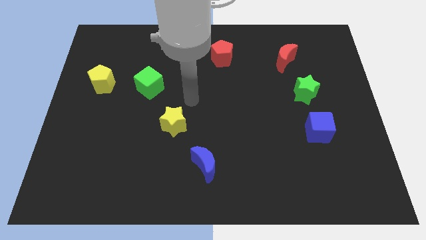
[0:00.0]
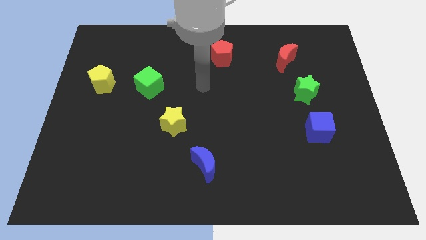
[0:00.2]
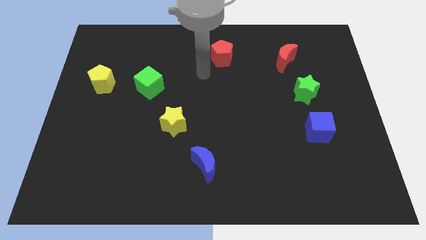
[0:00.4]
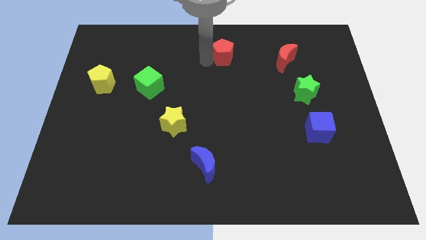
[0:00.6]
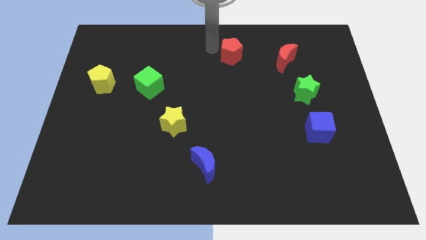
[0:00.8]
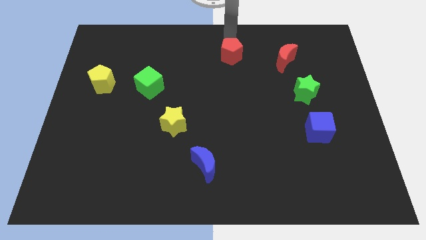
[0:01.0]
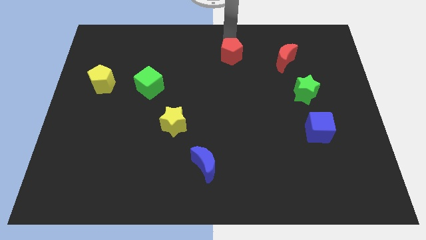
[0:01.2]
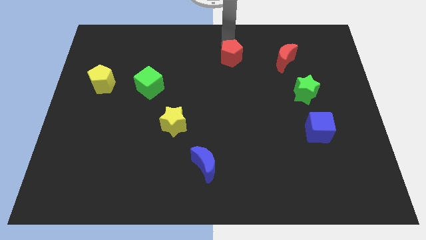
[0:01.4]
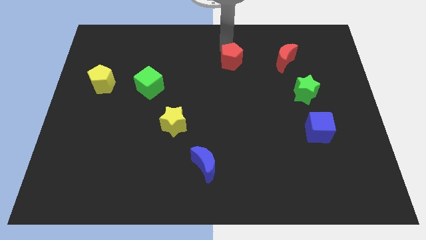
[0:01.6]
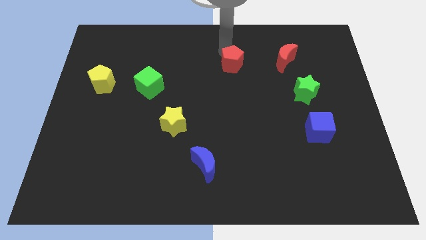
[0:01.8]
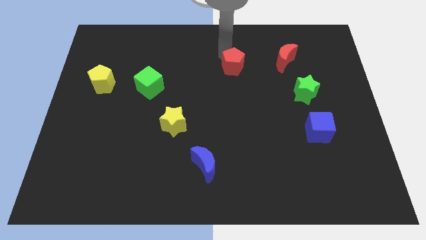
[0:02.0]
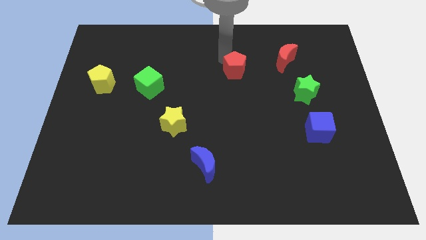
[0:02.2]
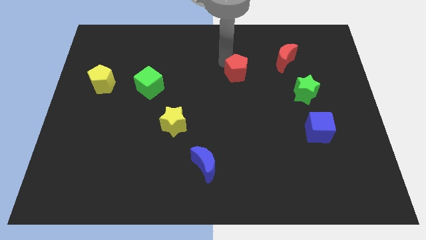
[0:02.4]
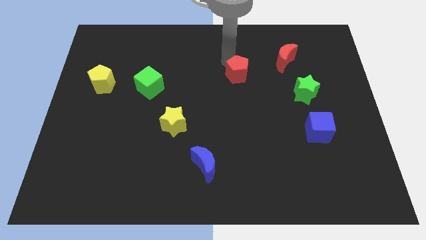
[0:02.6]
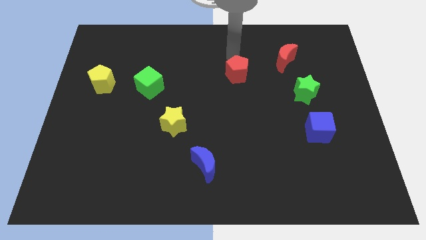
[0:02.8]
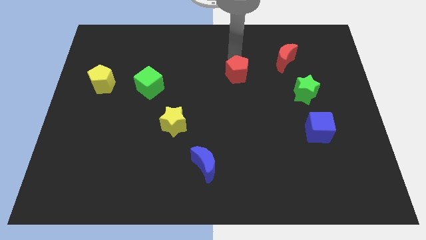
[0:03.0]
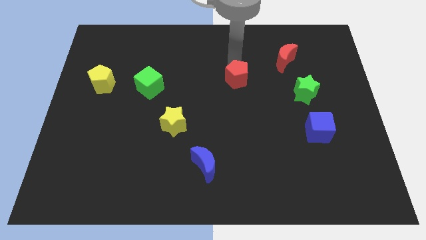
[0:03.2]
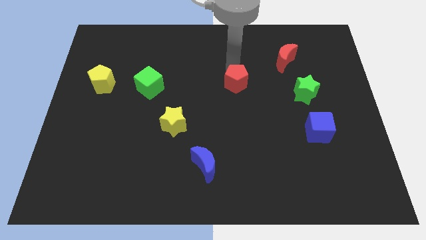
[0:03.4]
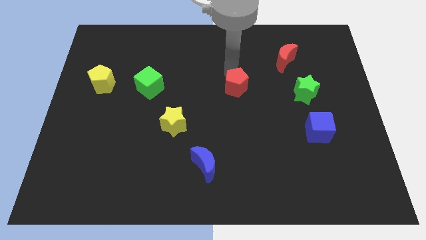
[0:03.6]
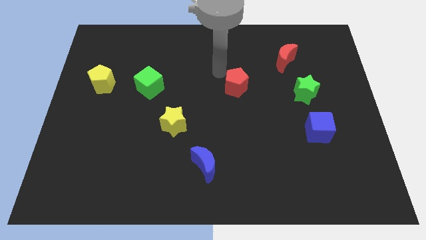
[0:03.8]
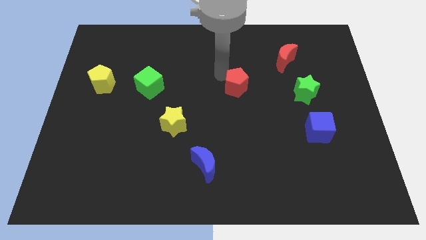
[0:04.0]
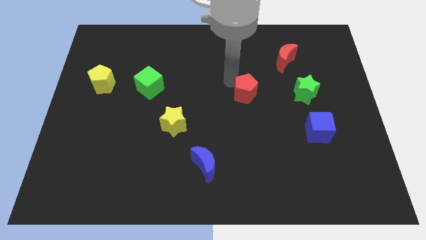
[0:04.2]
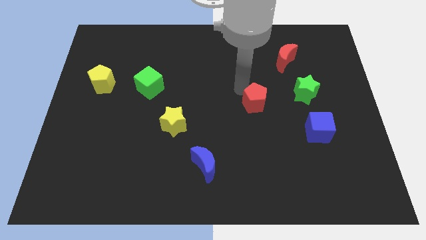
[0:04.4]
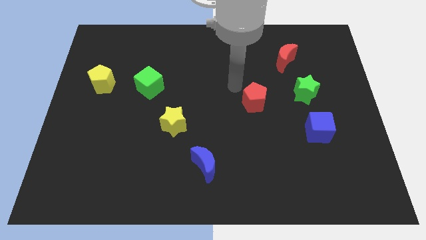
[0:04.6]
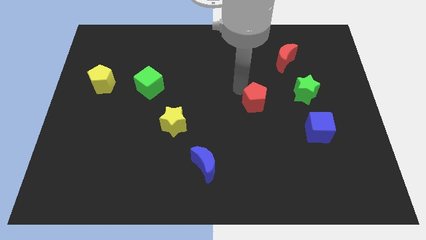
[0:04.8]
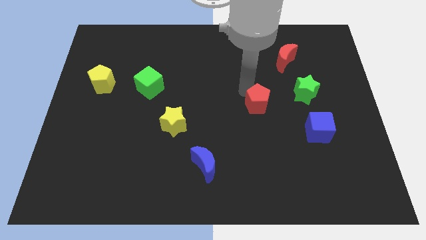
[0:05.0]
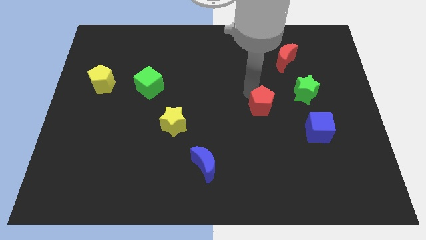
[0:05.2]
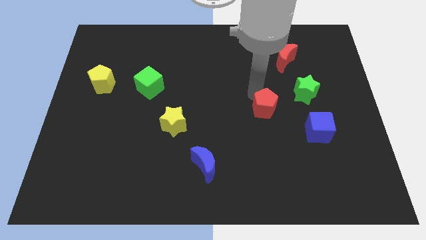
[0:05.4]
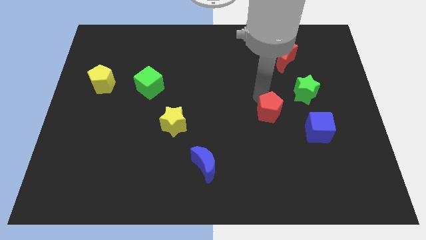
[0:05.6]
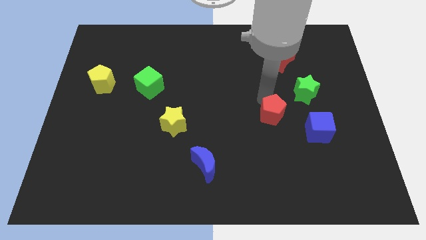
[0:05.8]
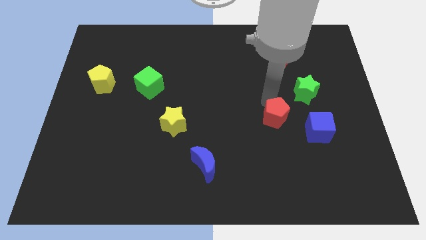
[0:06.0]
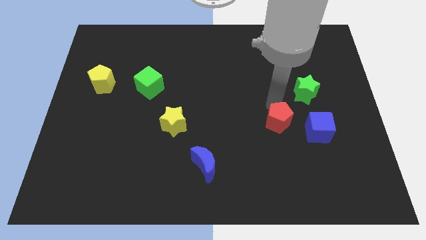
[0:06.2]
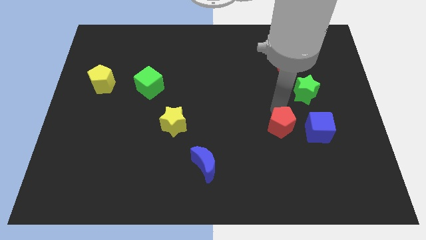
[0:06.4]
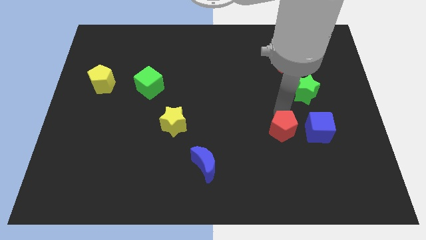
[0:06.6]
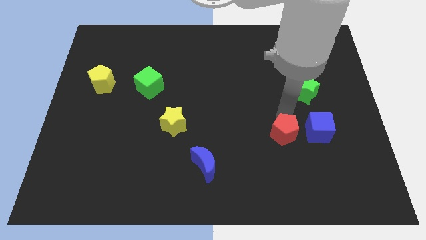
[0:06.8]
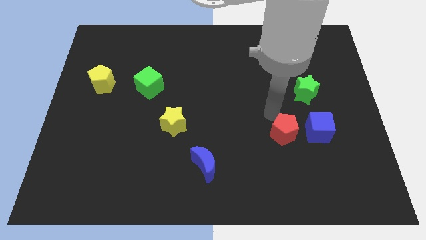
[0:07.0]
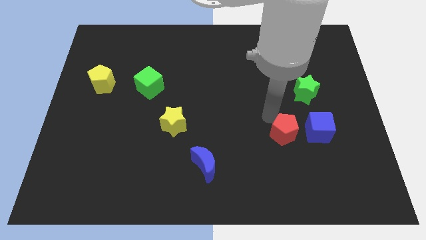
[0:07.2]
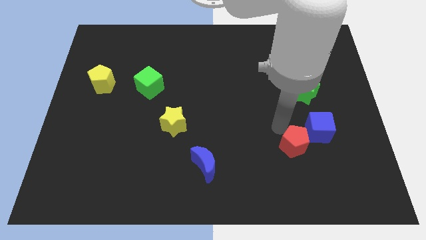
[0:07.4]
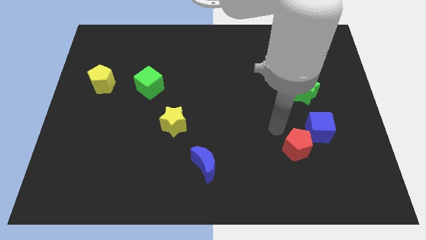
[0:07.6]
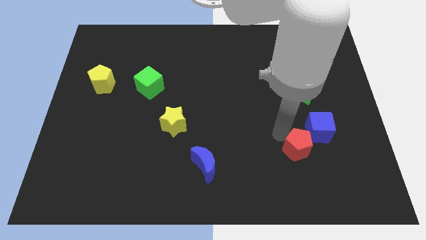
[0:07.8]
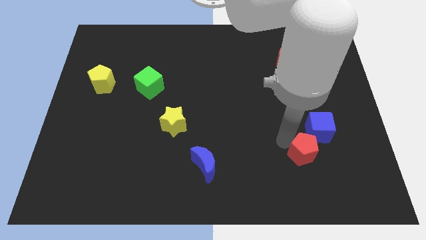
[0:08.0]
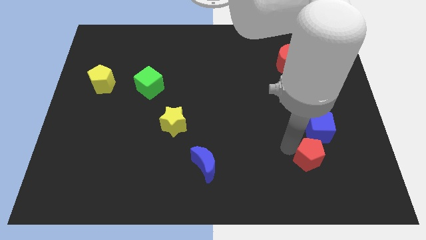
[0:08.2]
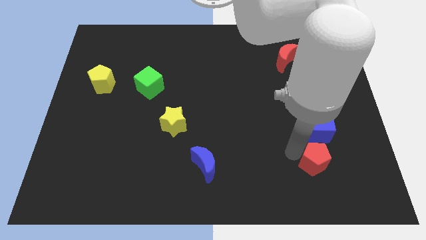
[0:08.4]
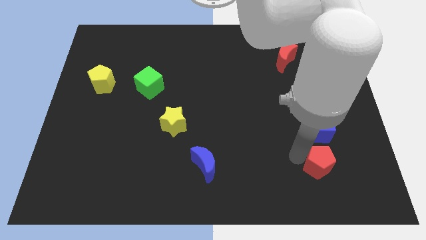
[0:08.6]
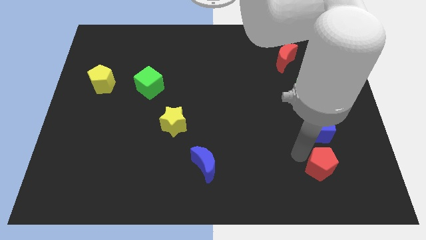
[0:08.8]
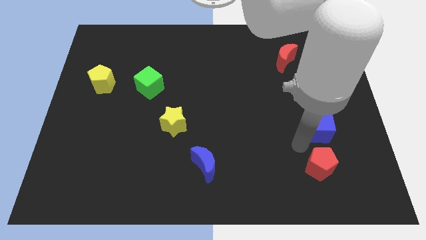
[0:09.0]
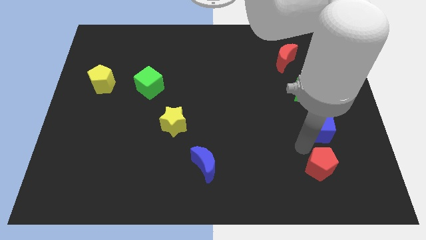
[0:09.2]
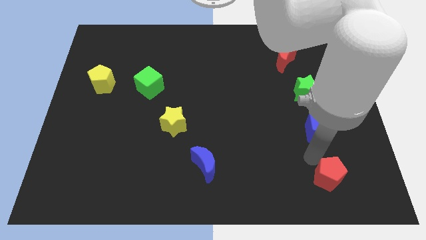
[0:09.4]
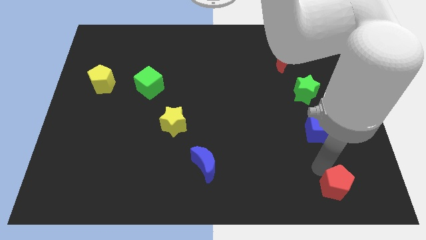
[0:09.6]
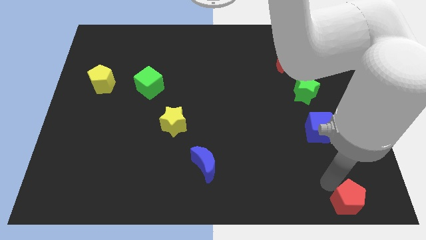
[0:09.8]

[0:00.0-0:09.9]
move the red pentagon to the bottom right of the board

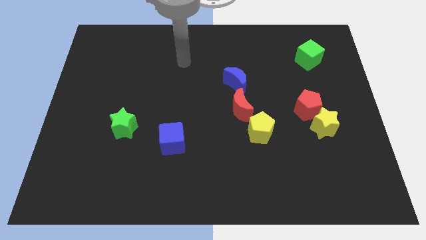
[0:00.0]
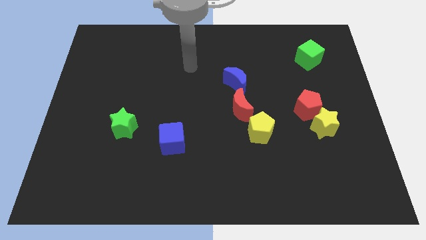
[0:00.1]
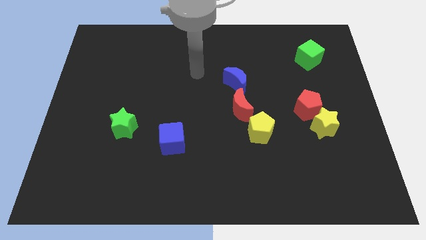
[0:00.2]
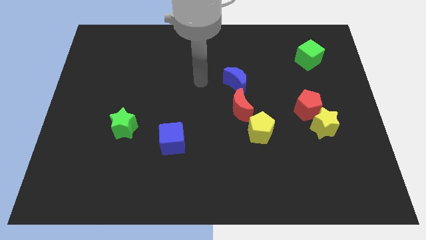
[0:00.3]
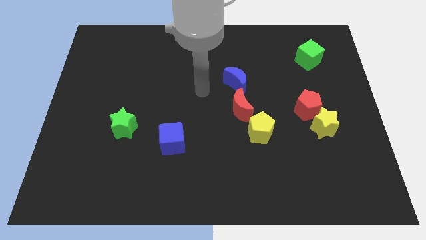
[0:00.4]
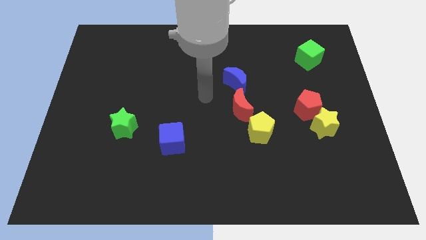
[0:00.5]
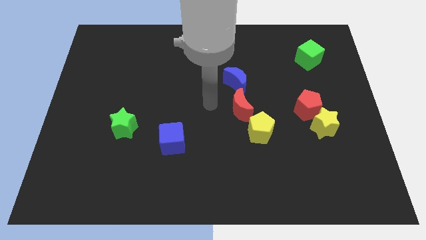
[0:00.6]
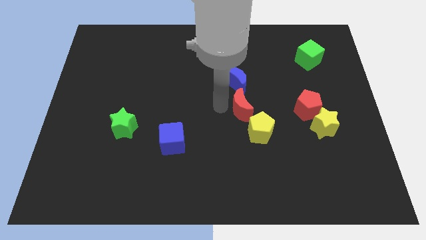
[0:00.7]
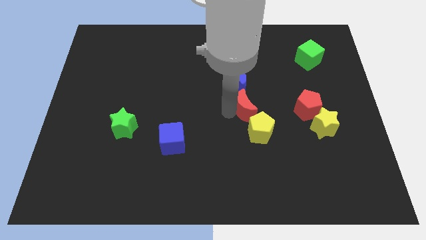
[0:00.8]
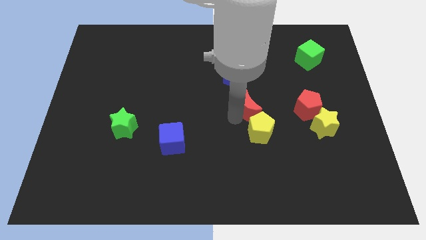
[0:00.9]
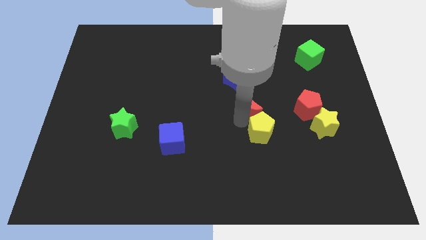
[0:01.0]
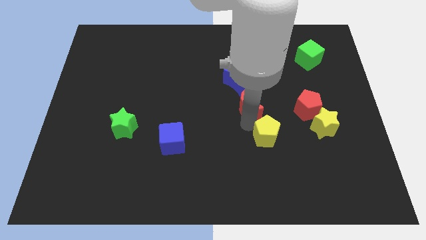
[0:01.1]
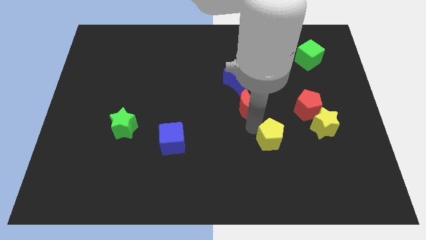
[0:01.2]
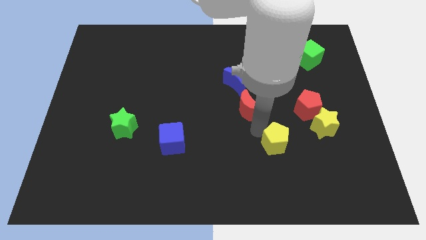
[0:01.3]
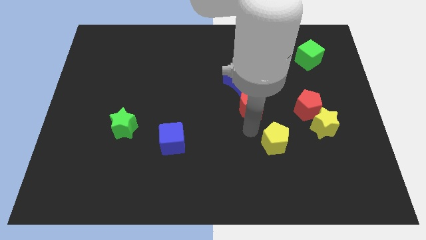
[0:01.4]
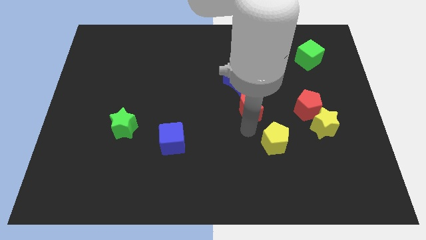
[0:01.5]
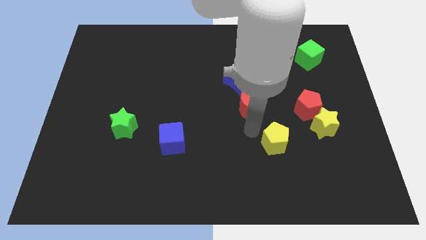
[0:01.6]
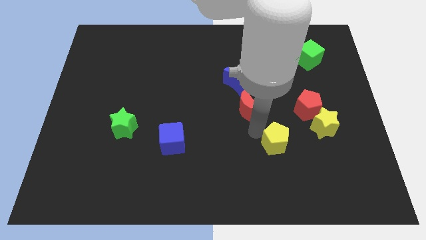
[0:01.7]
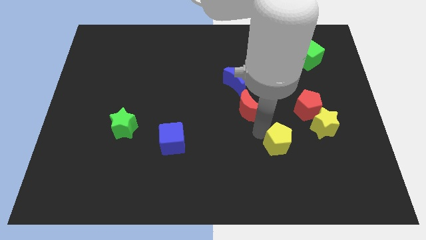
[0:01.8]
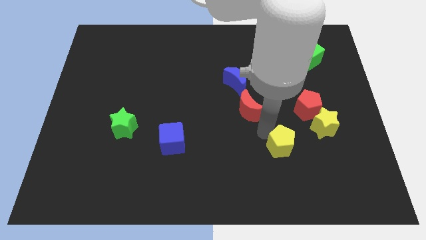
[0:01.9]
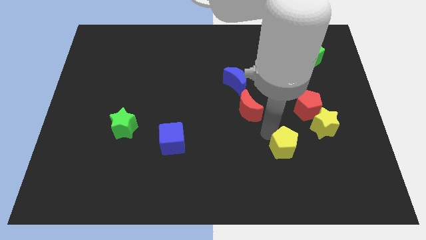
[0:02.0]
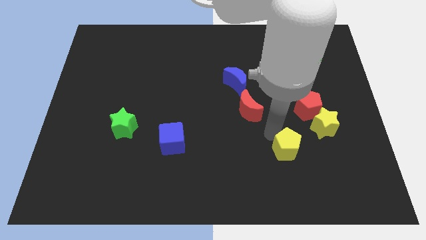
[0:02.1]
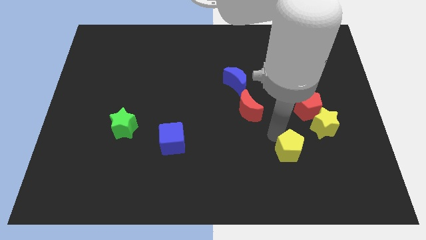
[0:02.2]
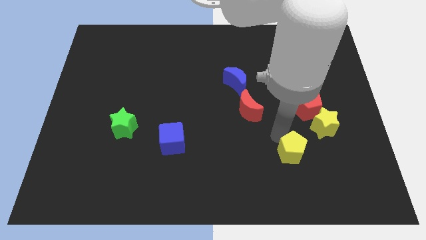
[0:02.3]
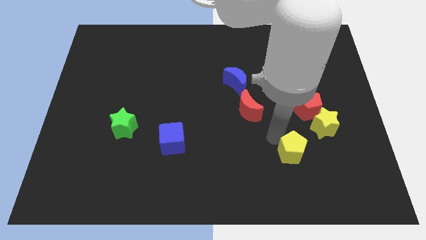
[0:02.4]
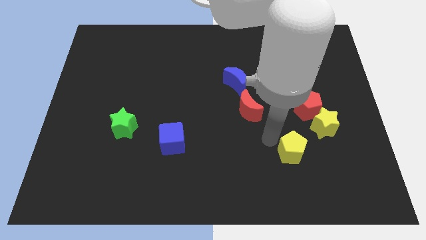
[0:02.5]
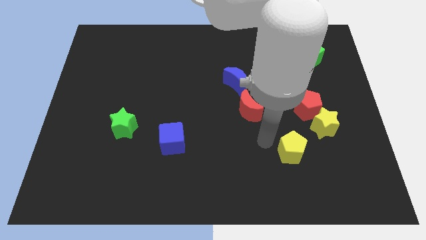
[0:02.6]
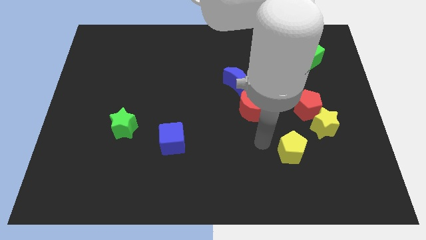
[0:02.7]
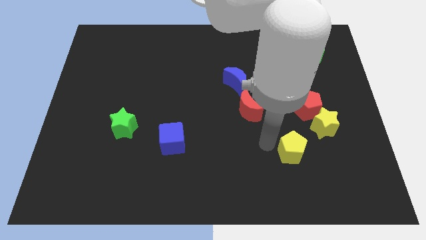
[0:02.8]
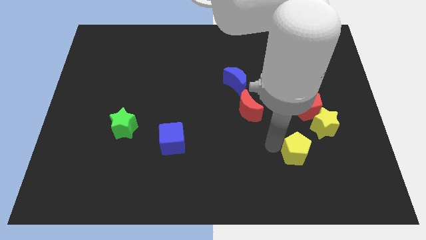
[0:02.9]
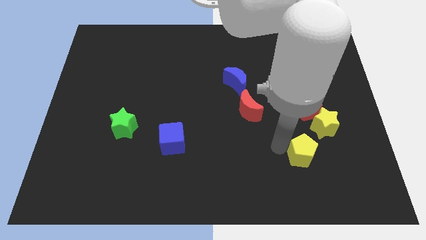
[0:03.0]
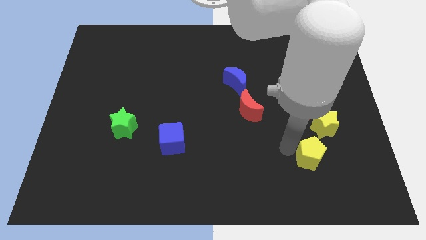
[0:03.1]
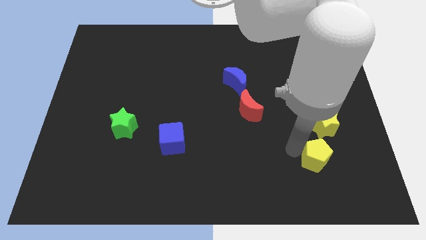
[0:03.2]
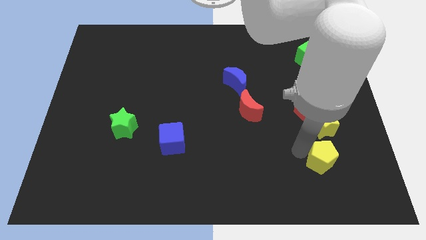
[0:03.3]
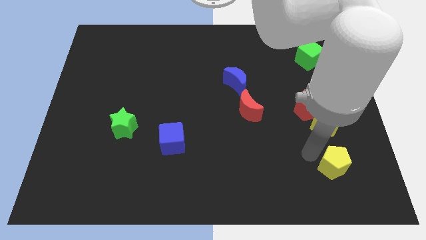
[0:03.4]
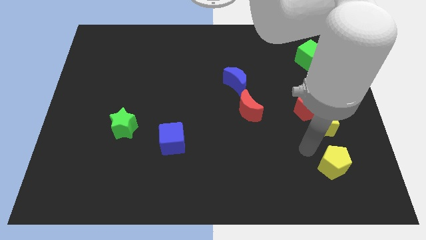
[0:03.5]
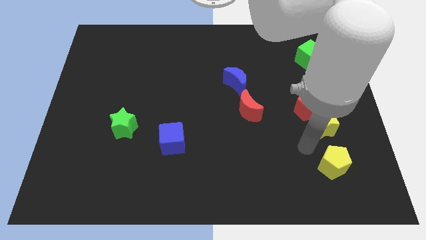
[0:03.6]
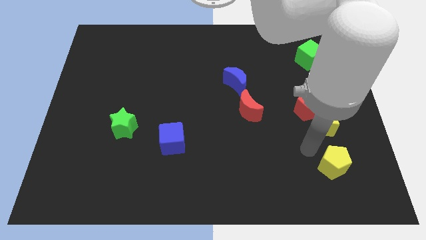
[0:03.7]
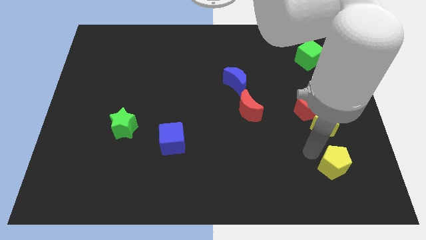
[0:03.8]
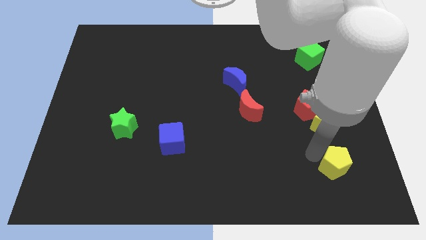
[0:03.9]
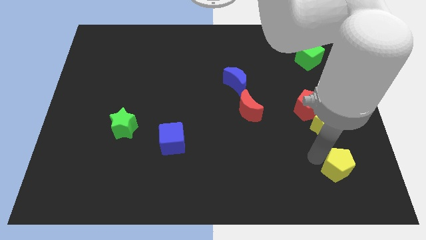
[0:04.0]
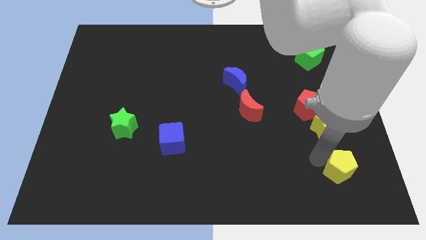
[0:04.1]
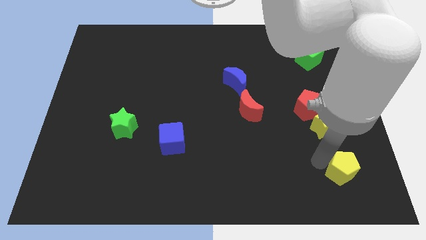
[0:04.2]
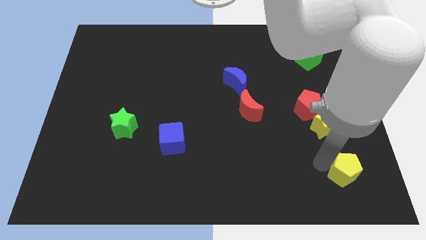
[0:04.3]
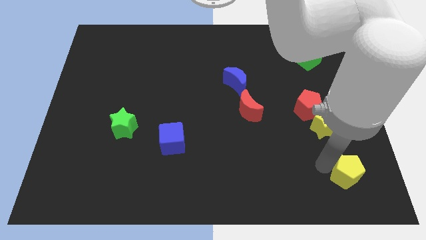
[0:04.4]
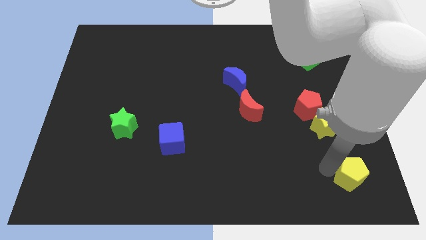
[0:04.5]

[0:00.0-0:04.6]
move the yellow pentagon to the bottom right corner
